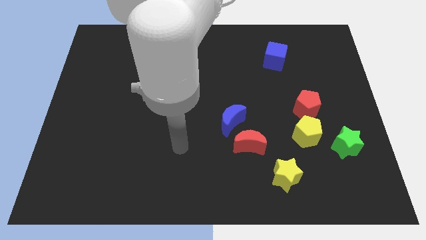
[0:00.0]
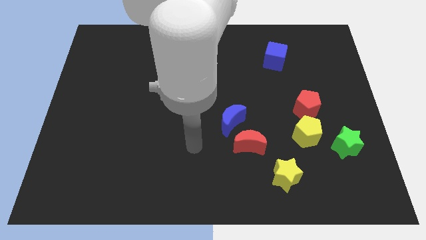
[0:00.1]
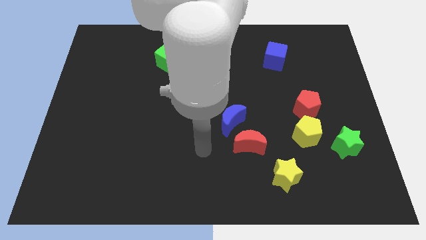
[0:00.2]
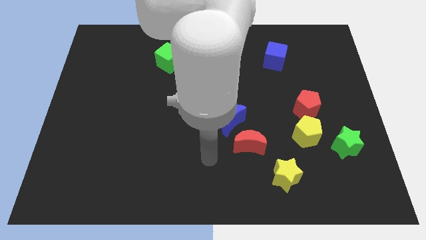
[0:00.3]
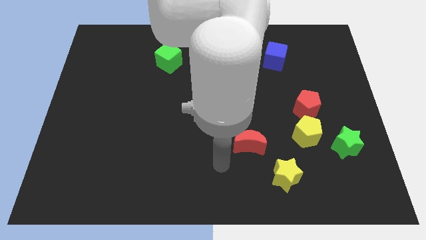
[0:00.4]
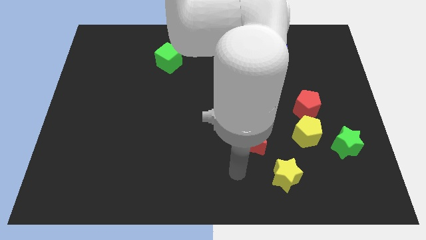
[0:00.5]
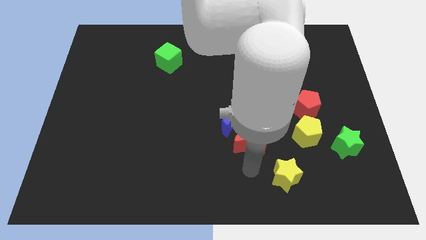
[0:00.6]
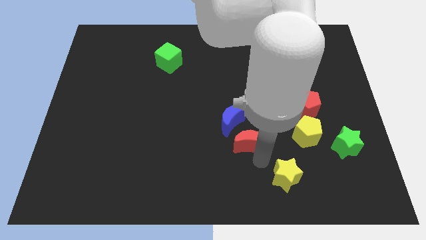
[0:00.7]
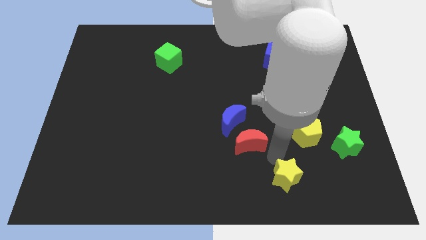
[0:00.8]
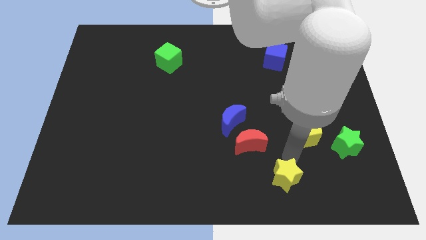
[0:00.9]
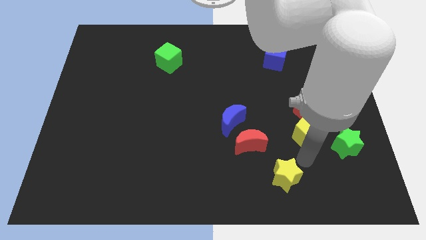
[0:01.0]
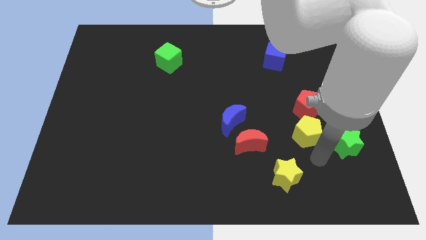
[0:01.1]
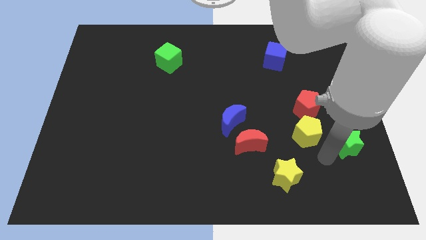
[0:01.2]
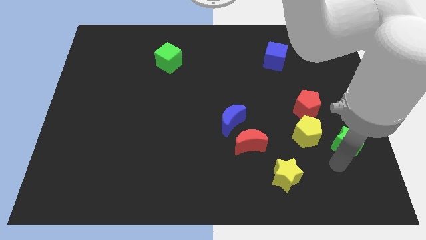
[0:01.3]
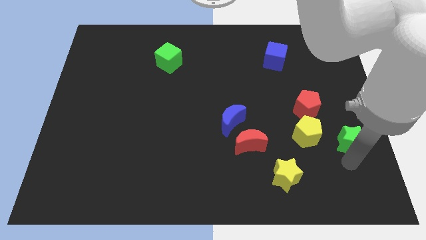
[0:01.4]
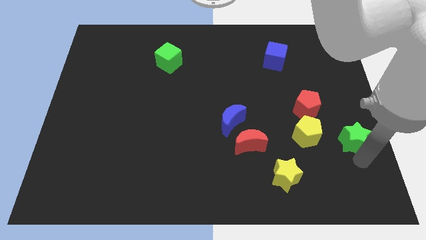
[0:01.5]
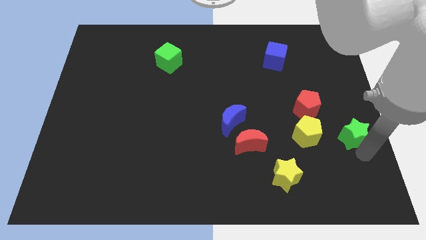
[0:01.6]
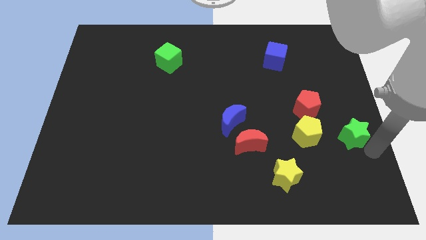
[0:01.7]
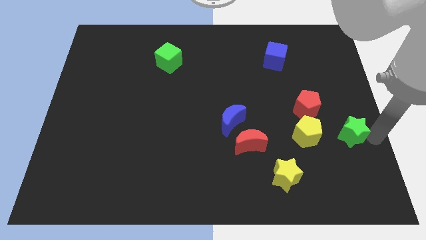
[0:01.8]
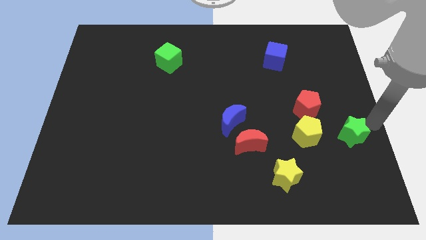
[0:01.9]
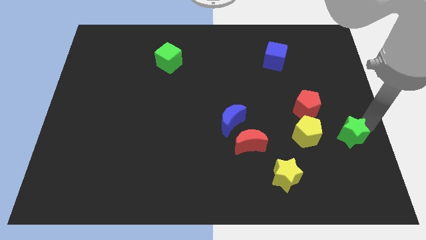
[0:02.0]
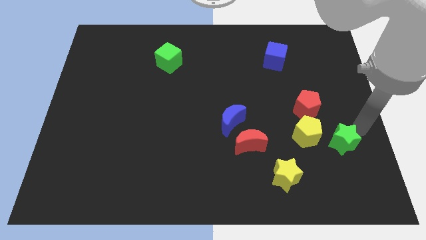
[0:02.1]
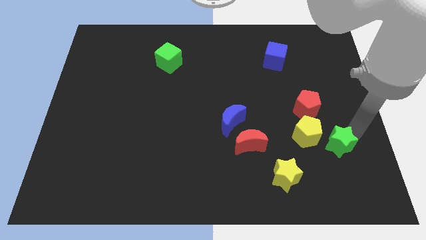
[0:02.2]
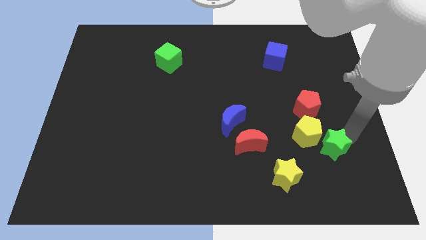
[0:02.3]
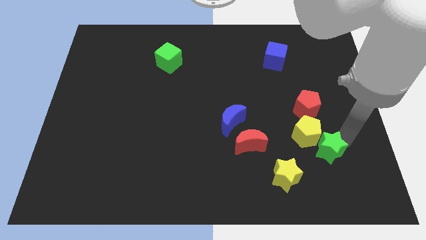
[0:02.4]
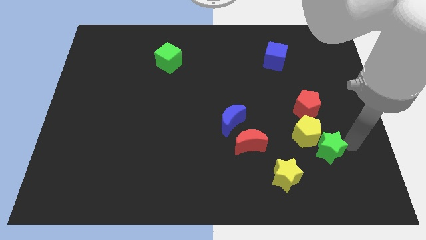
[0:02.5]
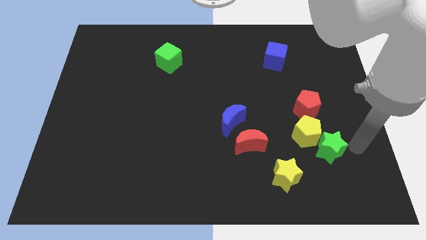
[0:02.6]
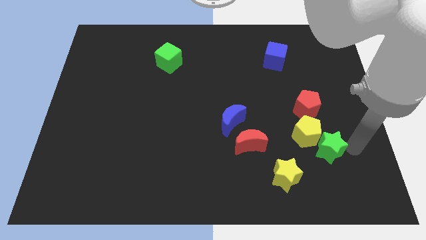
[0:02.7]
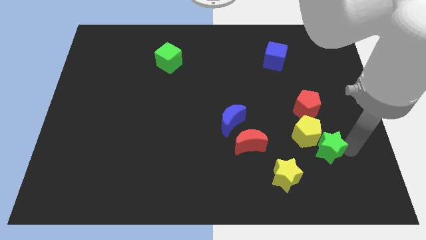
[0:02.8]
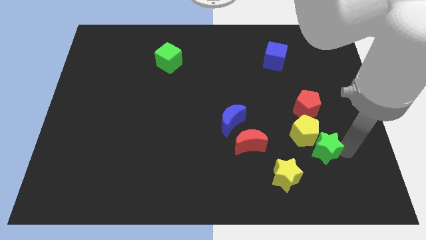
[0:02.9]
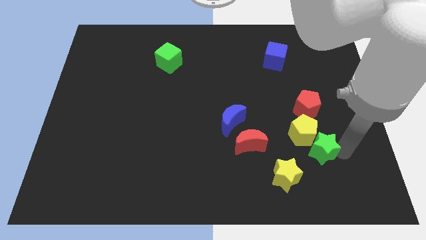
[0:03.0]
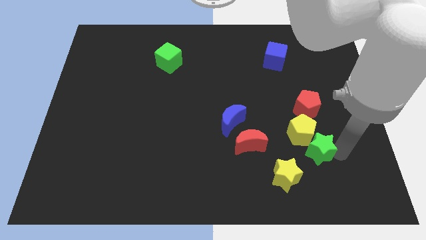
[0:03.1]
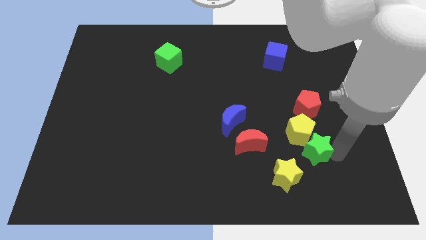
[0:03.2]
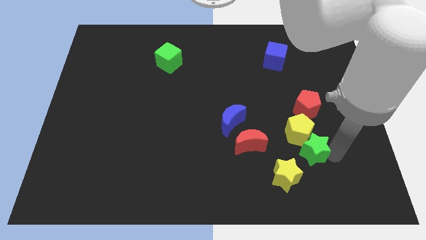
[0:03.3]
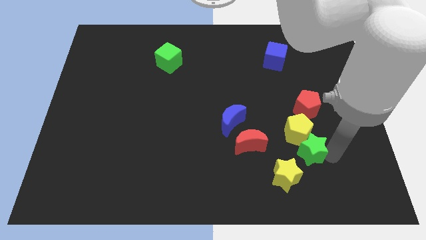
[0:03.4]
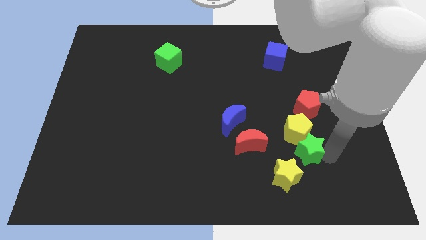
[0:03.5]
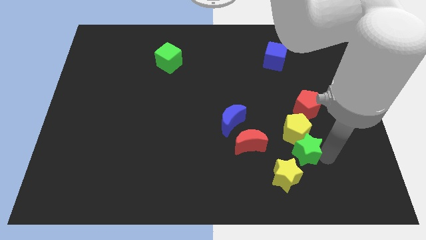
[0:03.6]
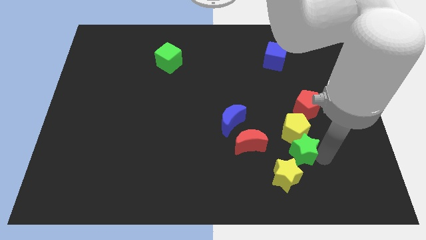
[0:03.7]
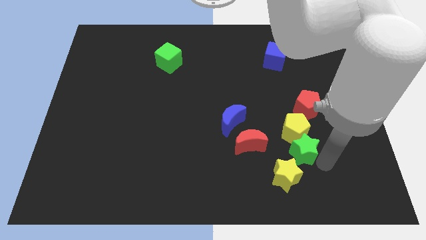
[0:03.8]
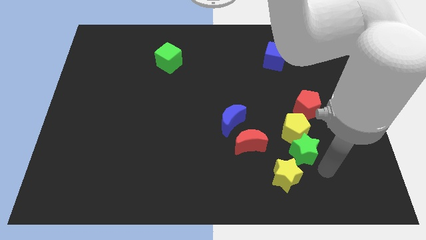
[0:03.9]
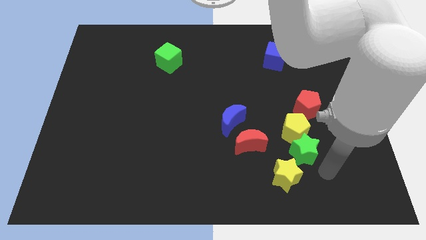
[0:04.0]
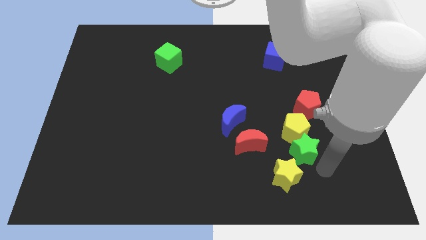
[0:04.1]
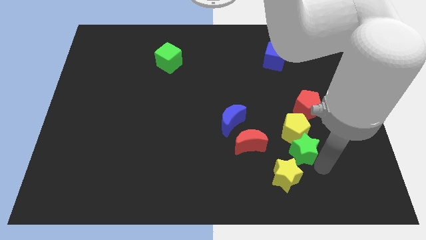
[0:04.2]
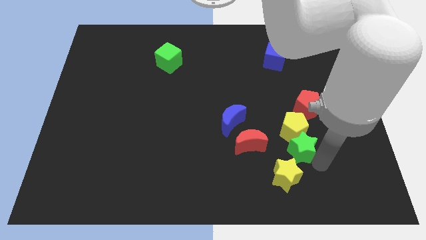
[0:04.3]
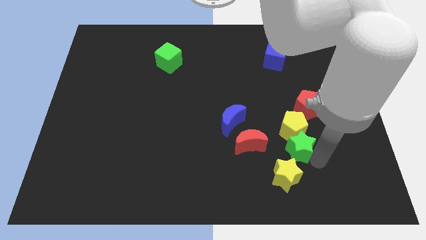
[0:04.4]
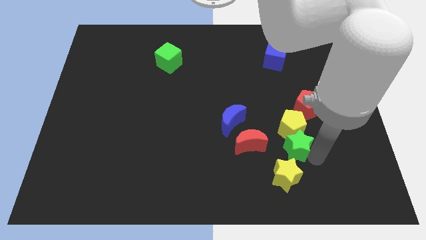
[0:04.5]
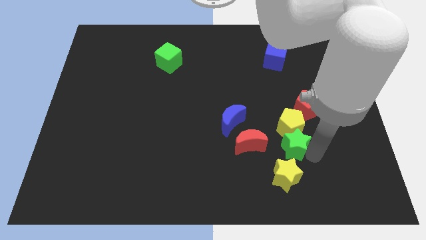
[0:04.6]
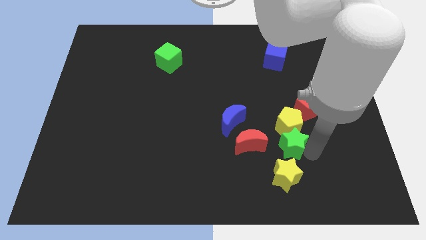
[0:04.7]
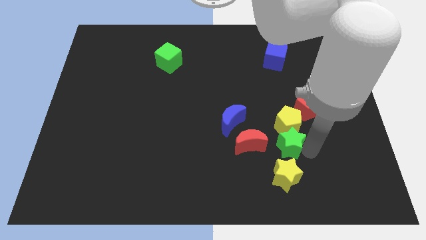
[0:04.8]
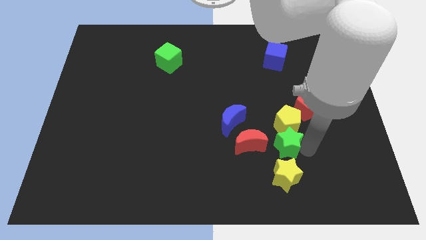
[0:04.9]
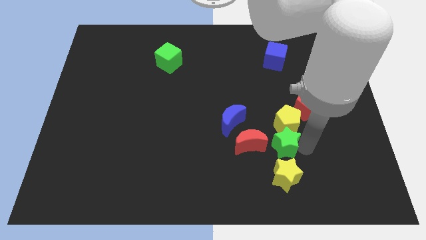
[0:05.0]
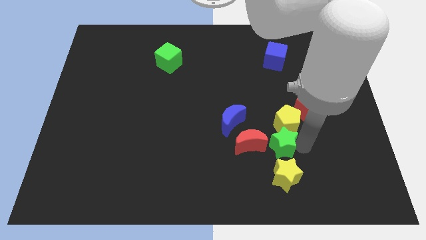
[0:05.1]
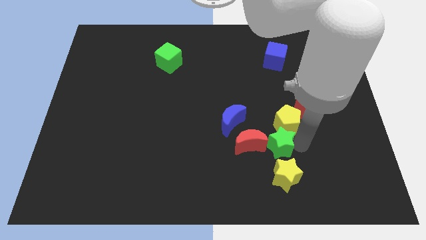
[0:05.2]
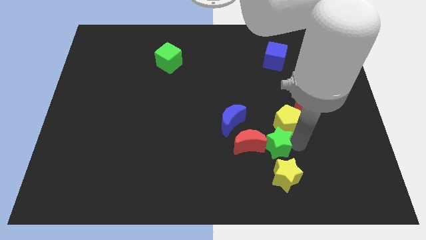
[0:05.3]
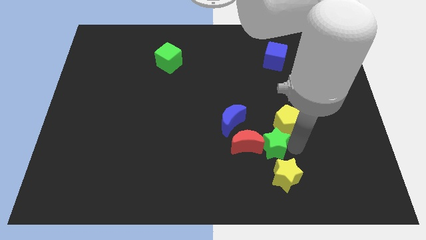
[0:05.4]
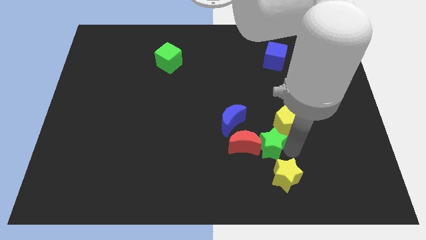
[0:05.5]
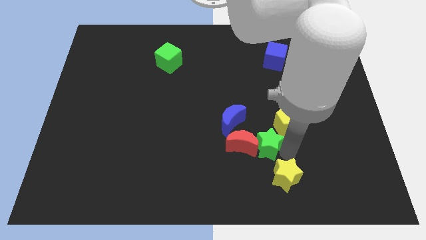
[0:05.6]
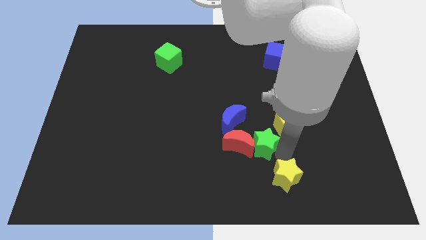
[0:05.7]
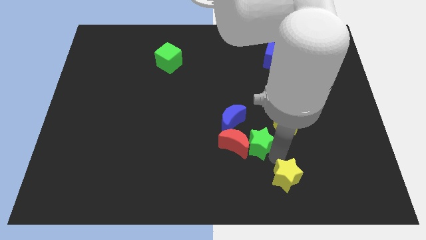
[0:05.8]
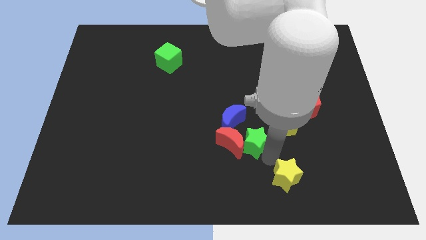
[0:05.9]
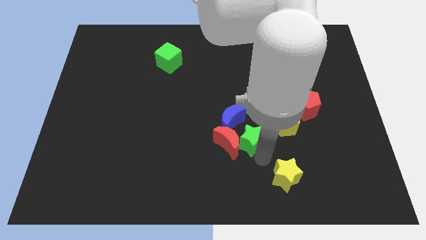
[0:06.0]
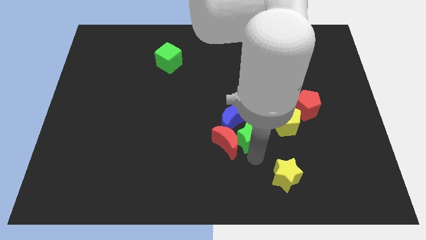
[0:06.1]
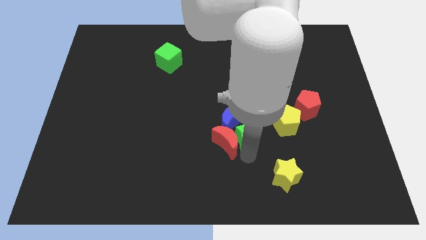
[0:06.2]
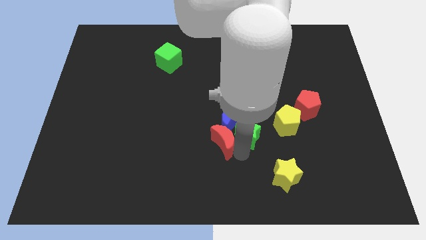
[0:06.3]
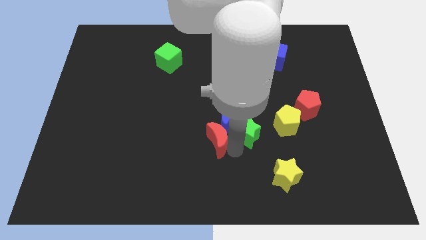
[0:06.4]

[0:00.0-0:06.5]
move the green star to the center
